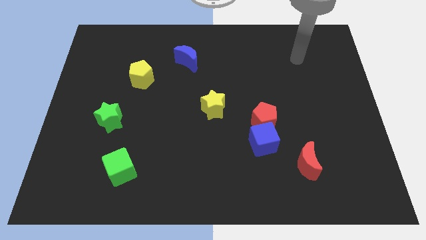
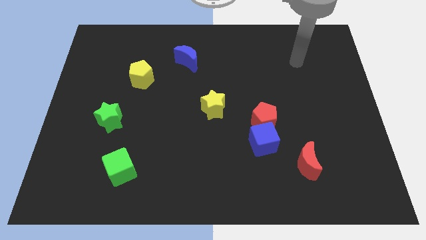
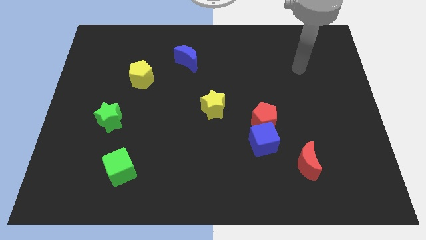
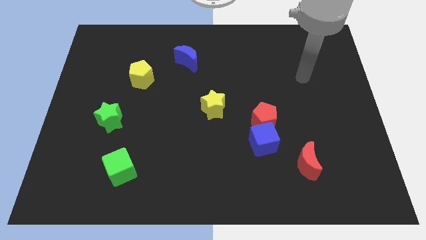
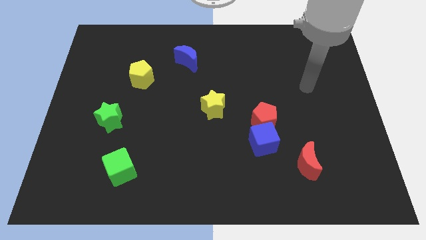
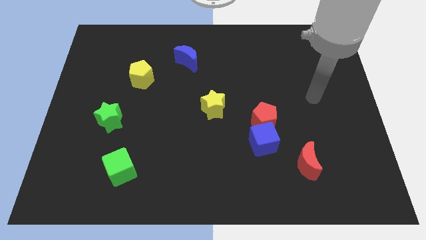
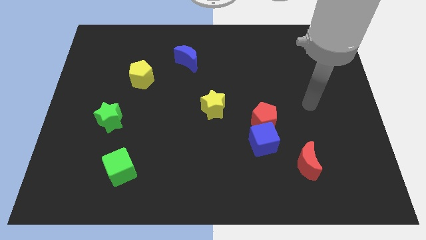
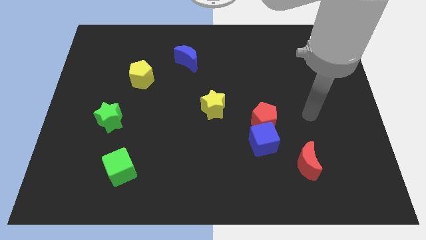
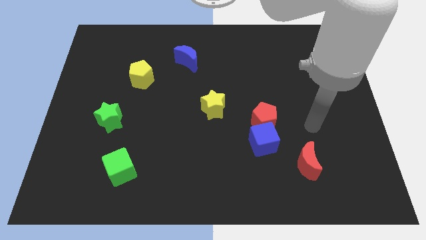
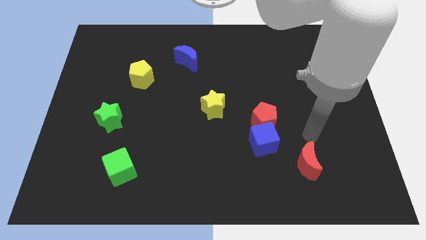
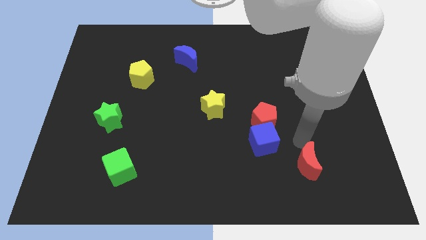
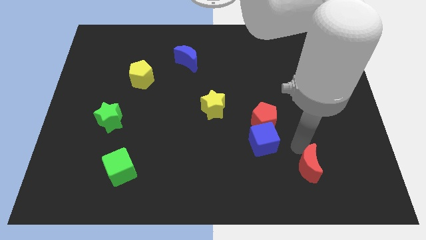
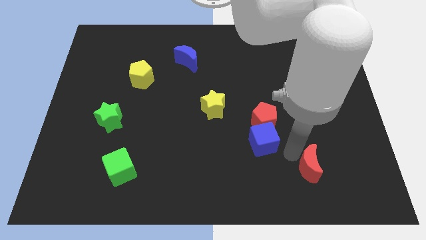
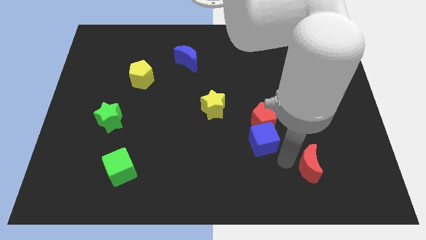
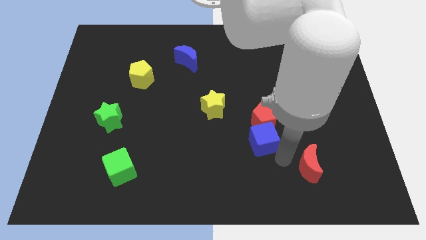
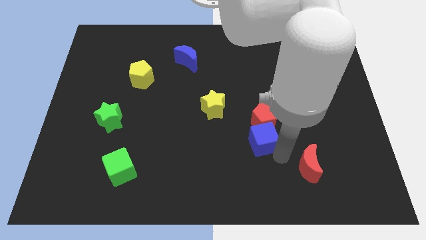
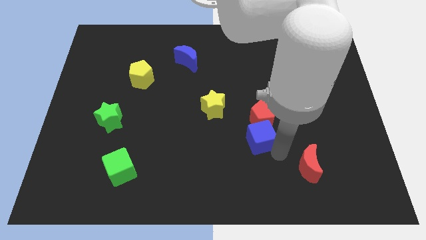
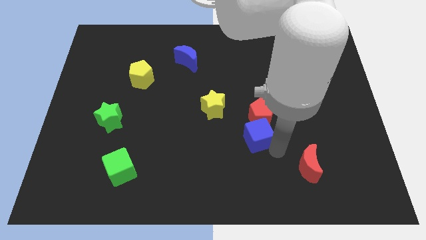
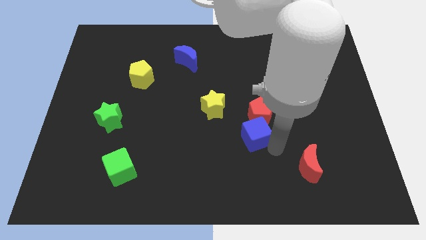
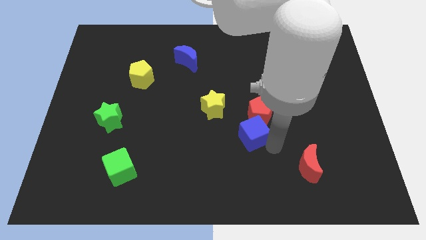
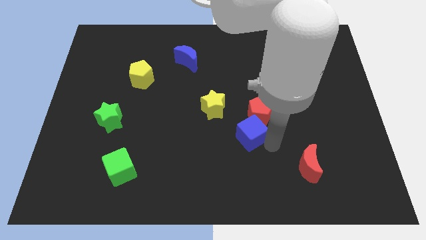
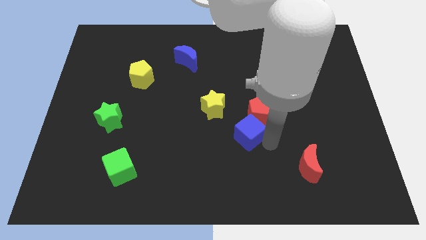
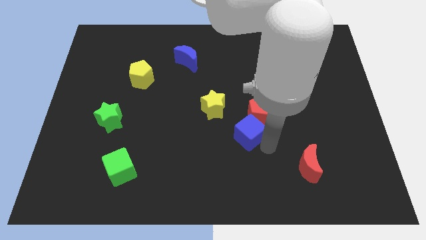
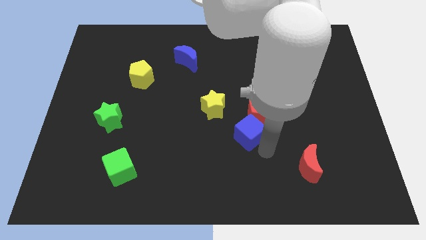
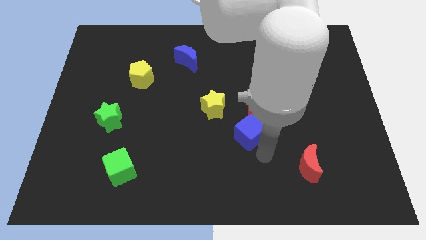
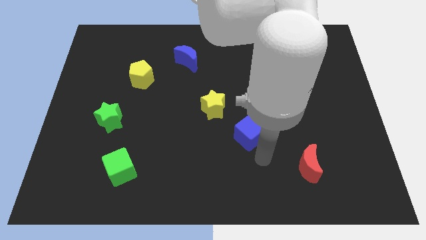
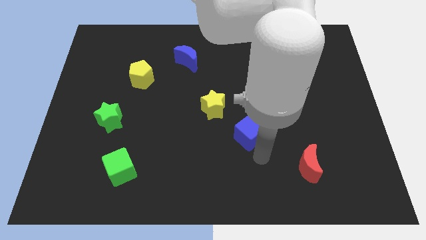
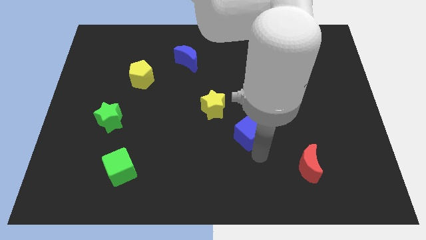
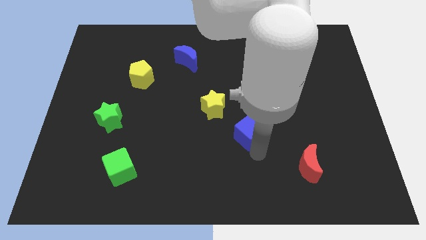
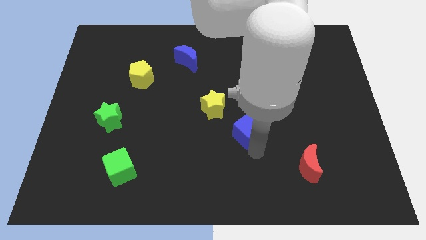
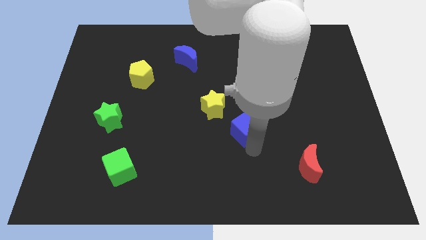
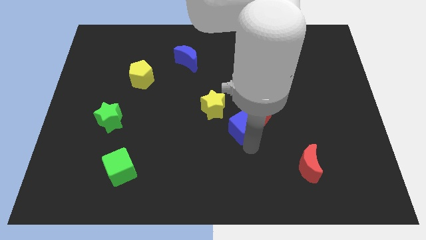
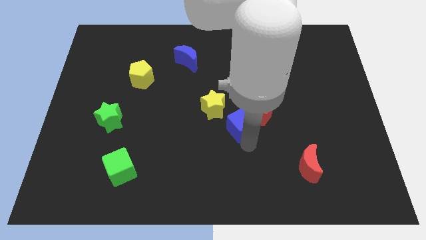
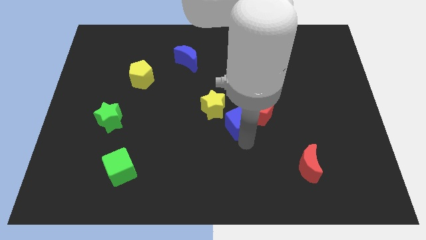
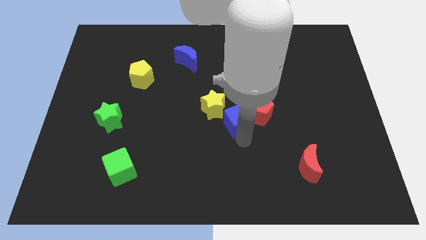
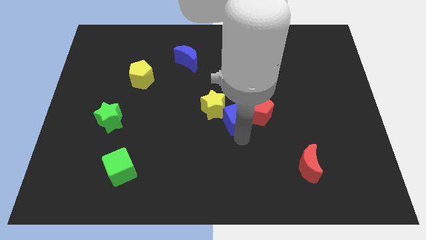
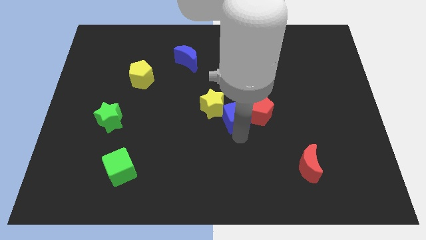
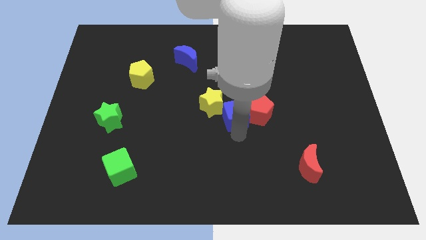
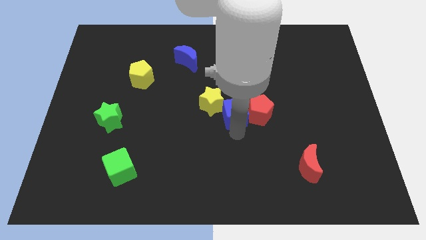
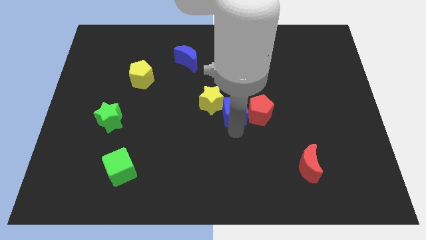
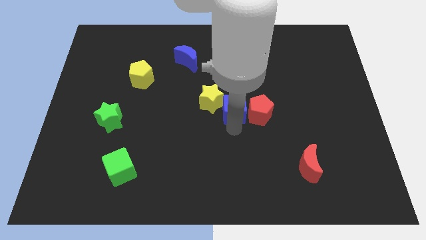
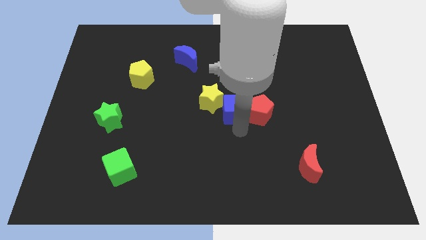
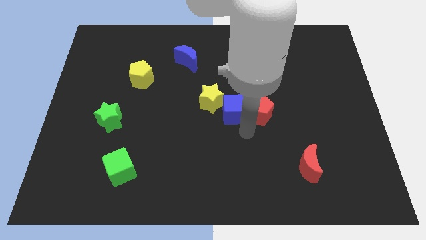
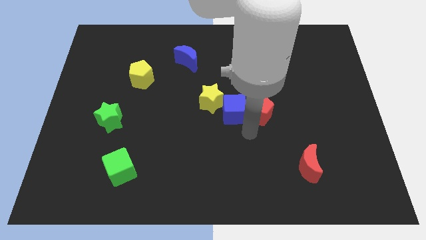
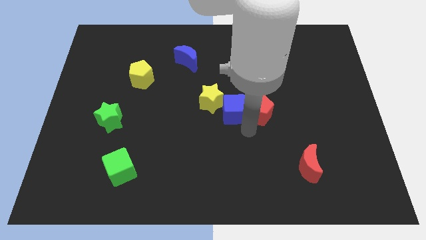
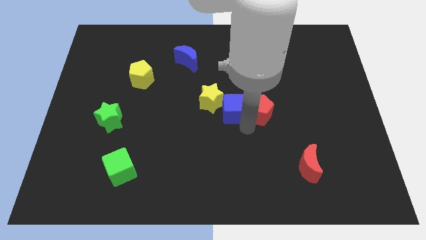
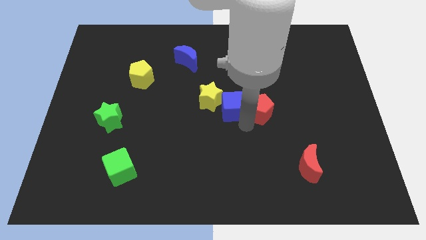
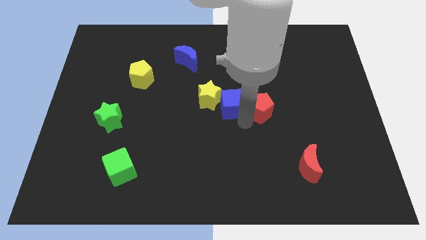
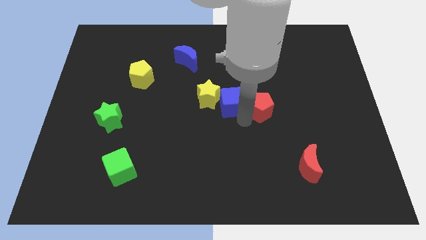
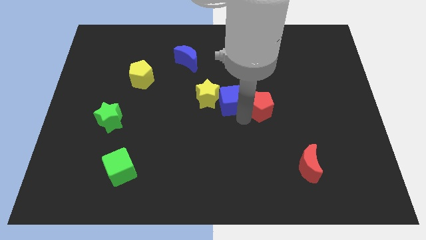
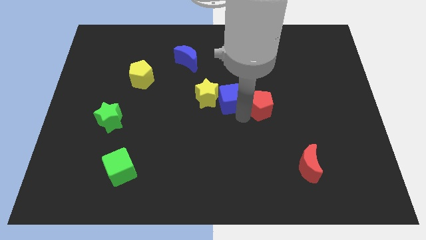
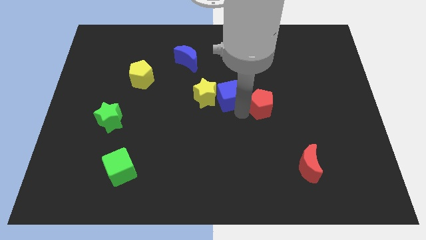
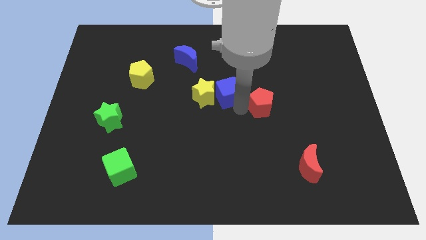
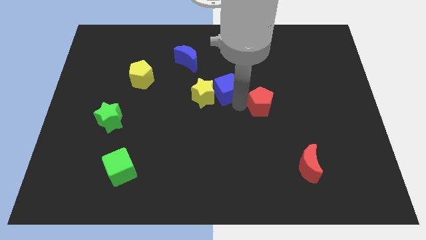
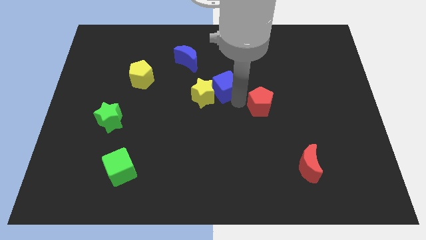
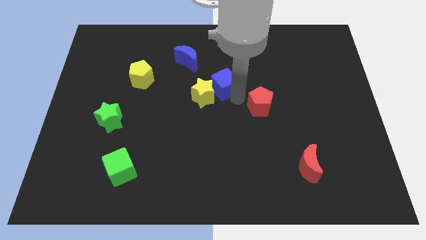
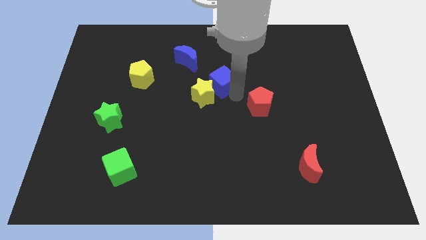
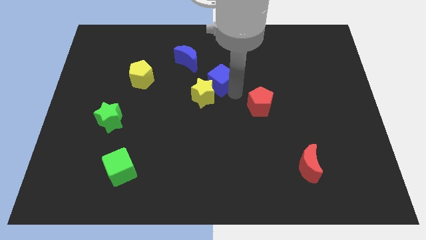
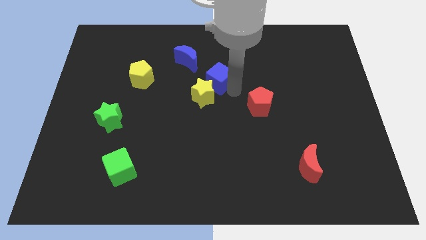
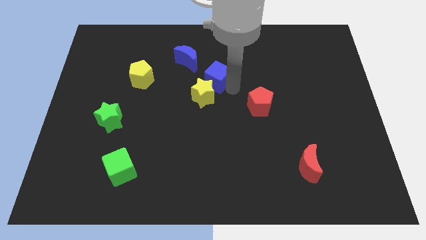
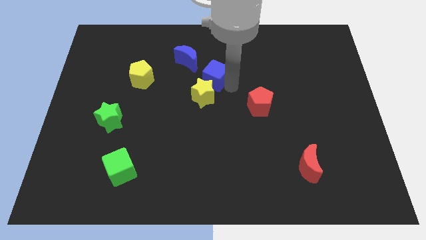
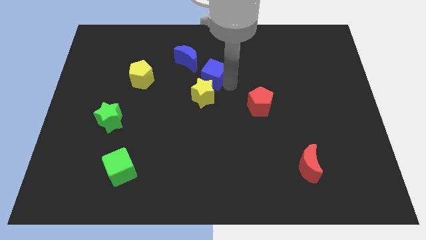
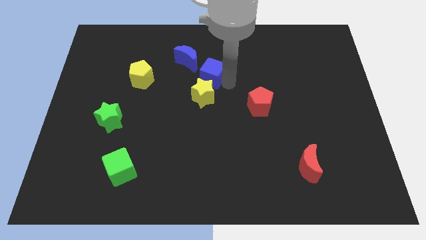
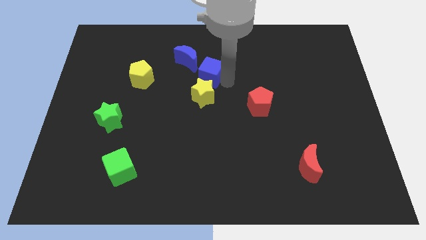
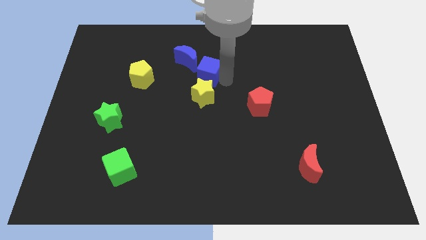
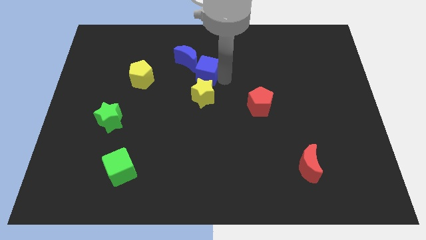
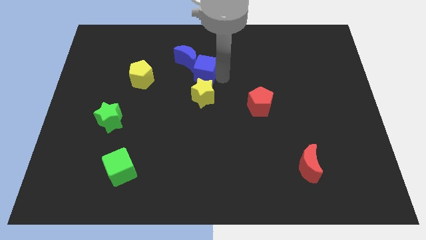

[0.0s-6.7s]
push the blue cube towards the blue moon
